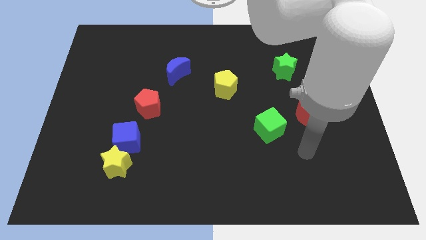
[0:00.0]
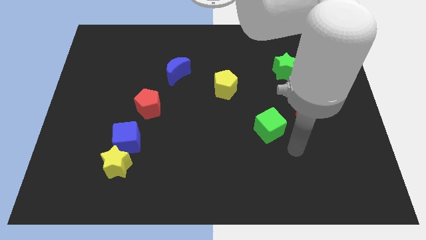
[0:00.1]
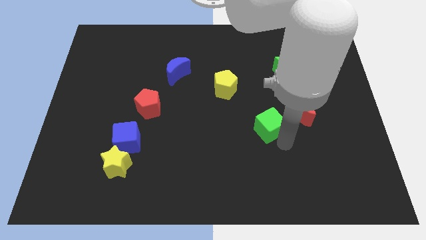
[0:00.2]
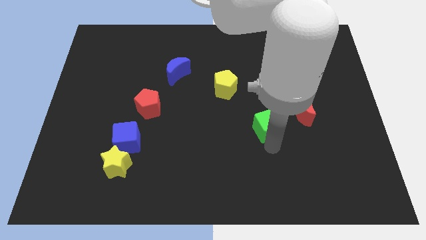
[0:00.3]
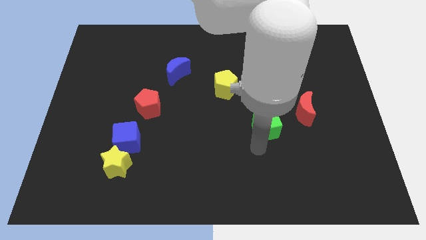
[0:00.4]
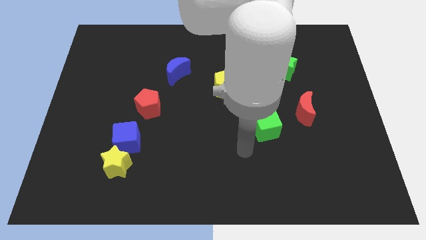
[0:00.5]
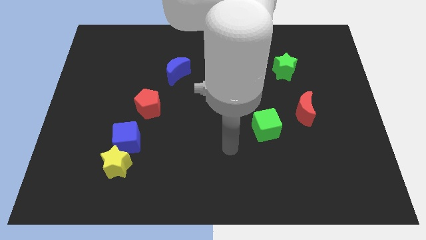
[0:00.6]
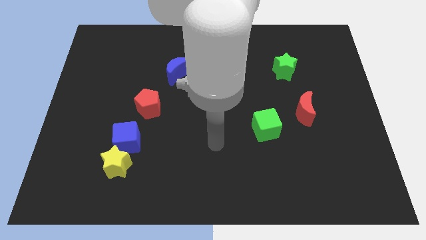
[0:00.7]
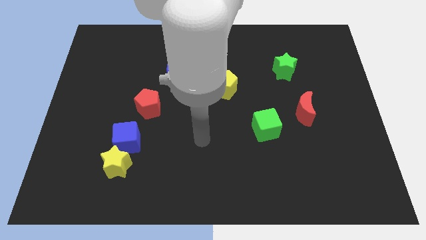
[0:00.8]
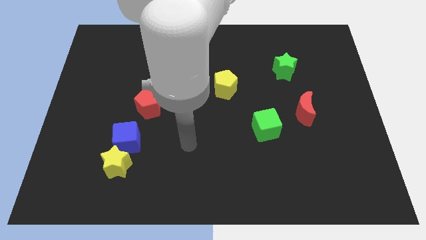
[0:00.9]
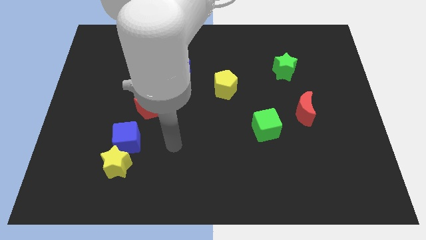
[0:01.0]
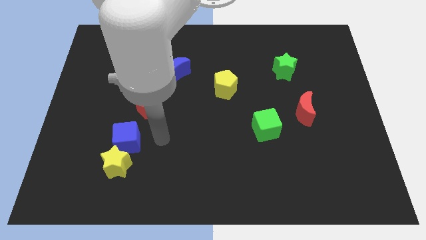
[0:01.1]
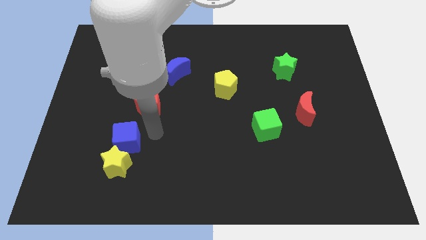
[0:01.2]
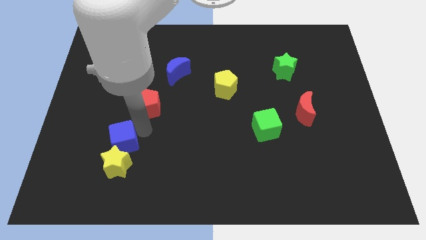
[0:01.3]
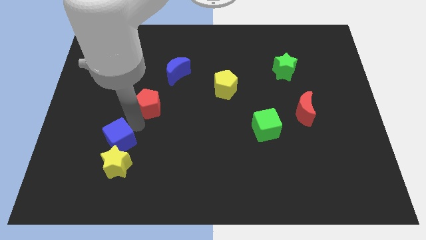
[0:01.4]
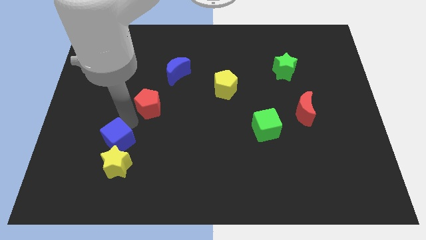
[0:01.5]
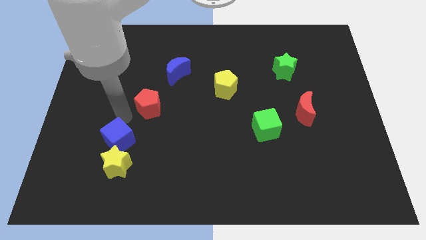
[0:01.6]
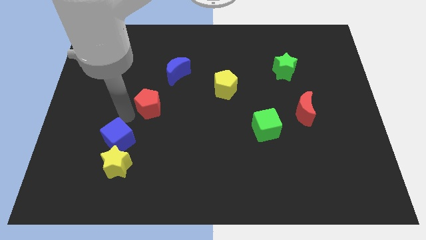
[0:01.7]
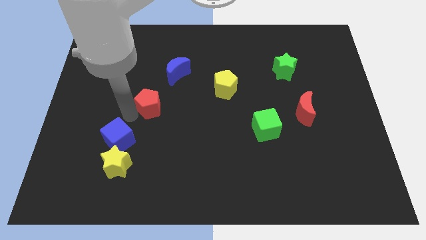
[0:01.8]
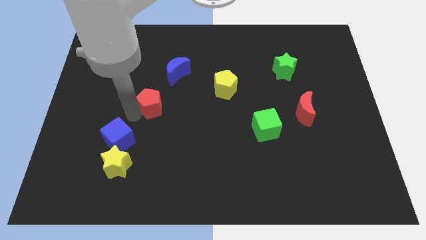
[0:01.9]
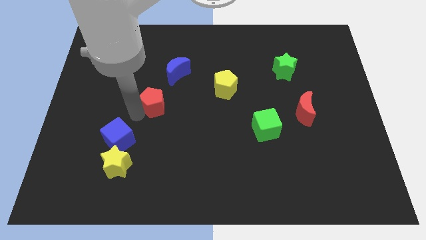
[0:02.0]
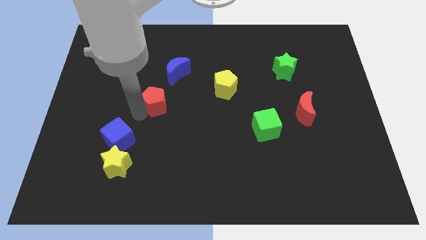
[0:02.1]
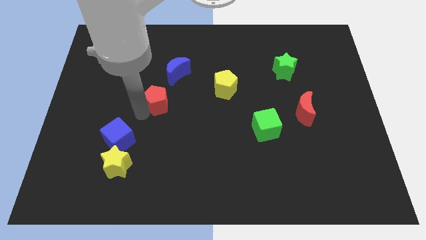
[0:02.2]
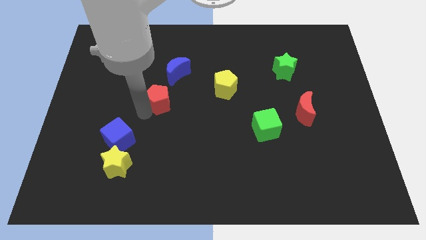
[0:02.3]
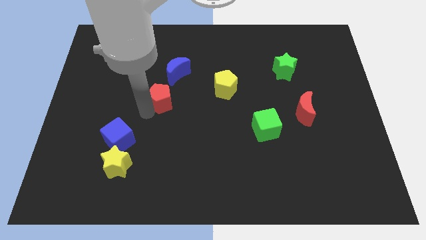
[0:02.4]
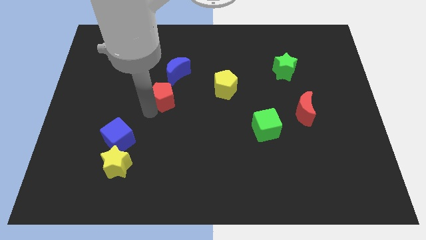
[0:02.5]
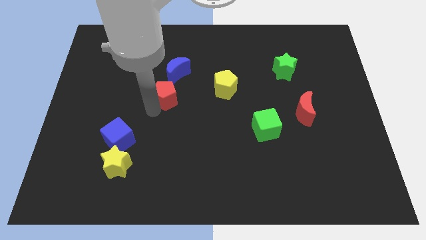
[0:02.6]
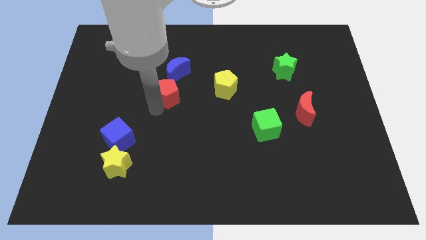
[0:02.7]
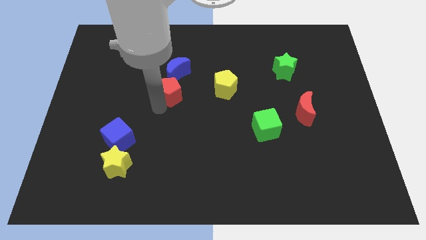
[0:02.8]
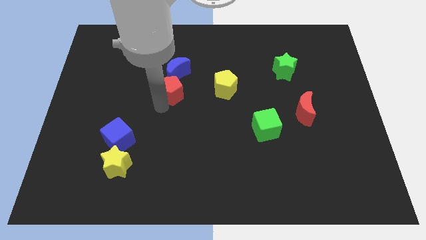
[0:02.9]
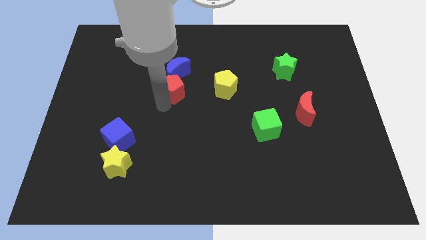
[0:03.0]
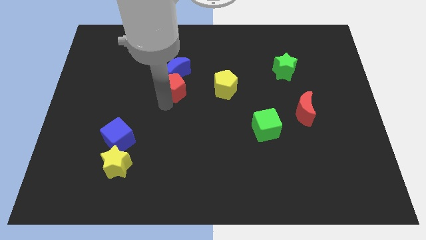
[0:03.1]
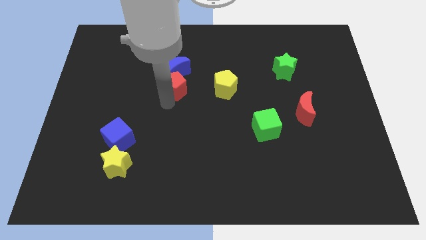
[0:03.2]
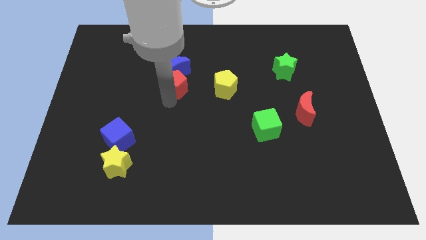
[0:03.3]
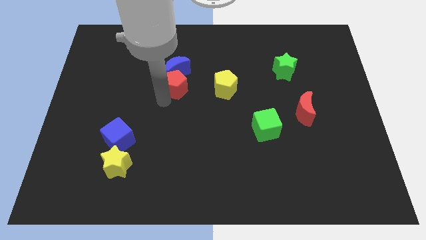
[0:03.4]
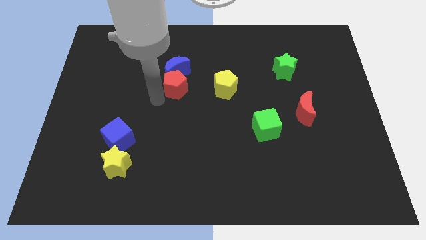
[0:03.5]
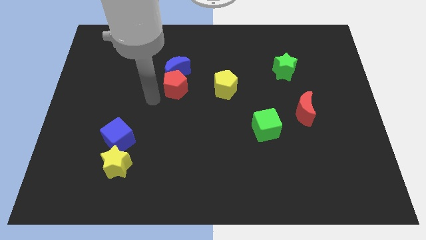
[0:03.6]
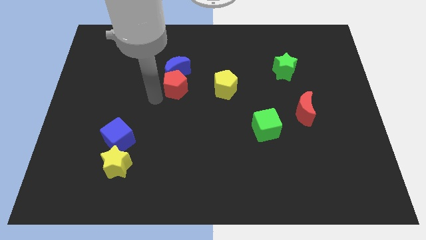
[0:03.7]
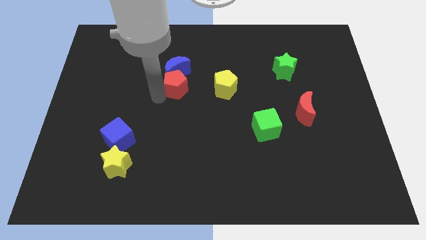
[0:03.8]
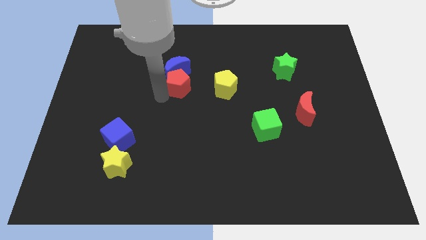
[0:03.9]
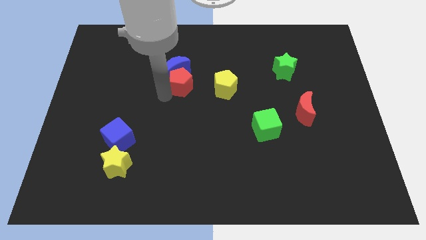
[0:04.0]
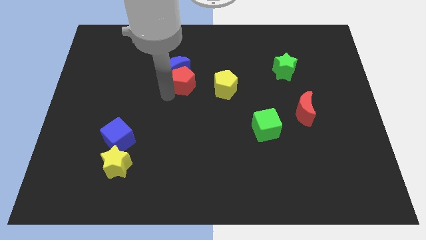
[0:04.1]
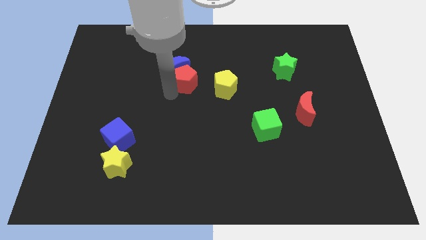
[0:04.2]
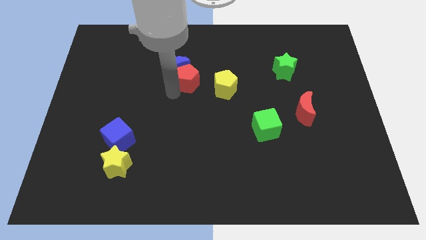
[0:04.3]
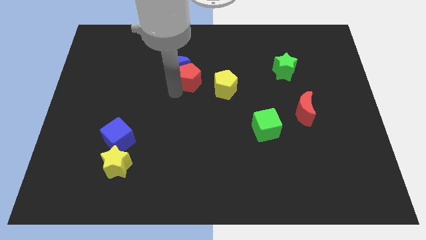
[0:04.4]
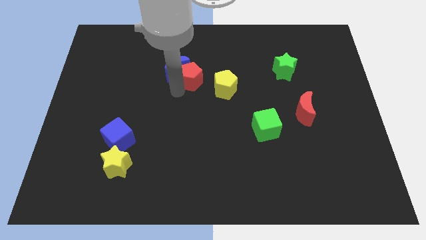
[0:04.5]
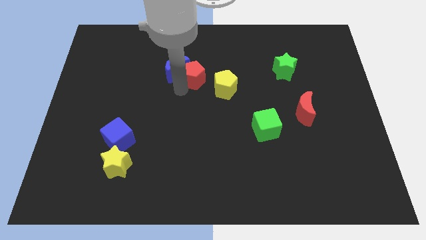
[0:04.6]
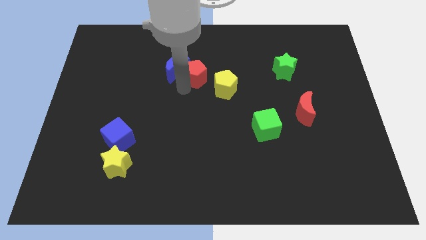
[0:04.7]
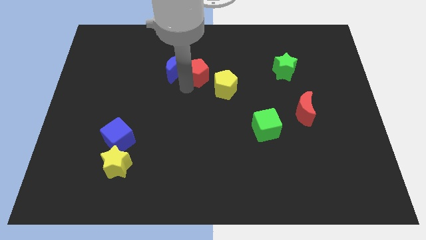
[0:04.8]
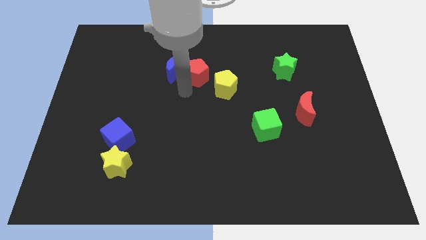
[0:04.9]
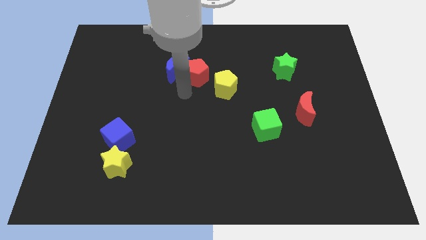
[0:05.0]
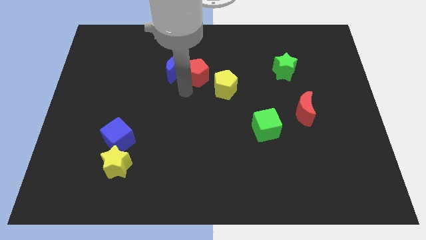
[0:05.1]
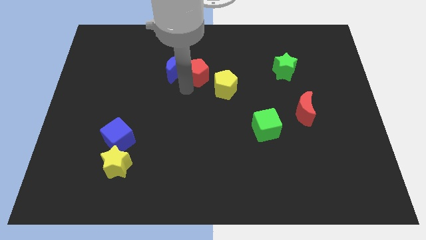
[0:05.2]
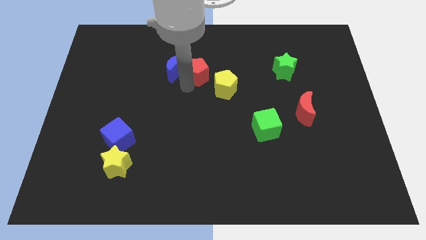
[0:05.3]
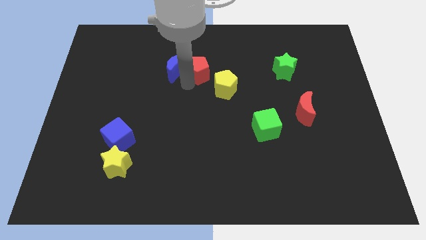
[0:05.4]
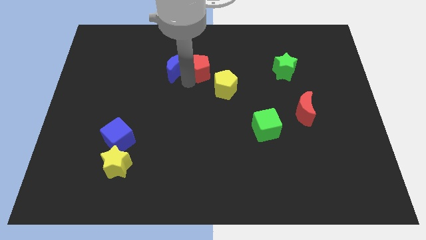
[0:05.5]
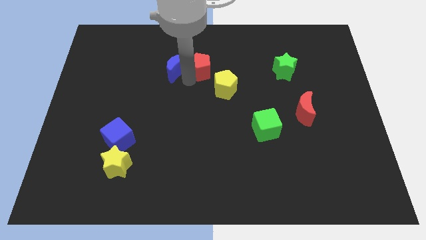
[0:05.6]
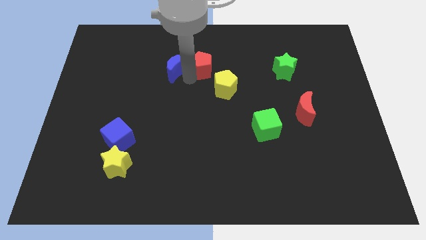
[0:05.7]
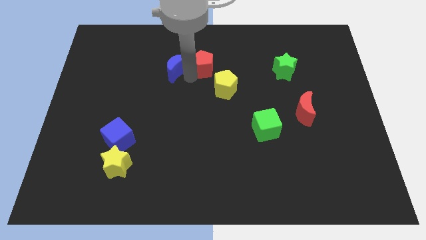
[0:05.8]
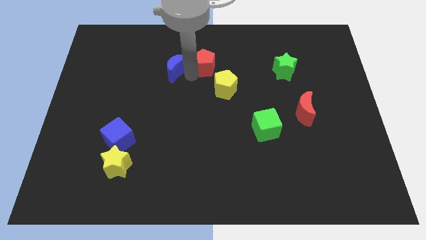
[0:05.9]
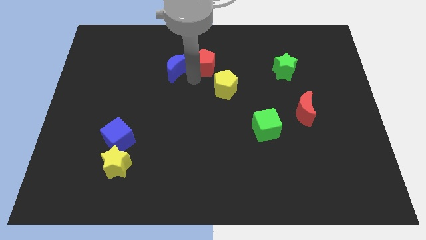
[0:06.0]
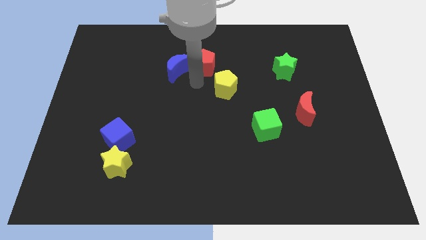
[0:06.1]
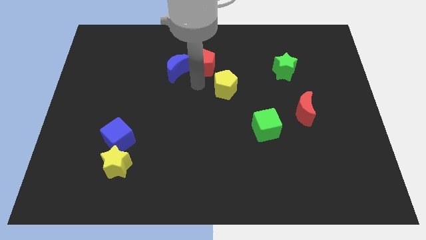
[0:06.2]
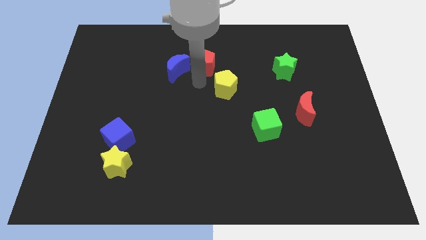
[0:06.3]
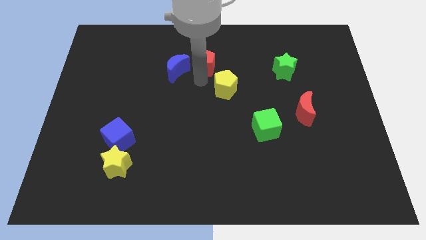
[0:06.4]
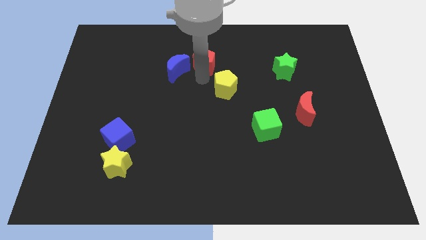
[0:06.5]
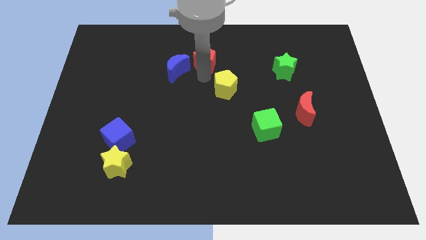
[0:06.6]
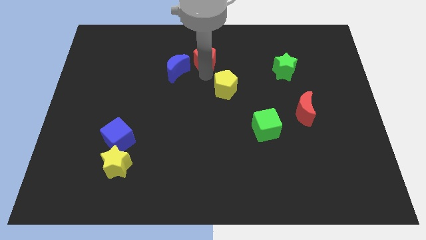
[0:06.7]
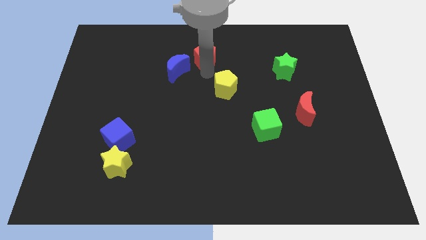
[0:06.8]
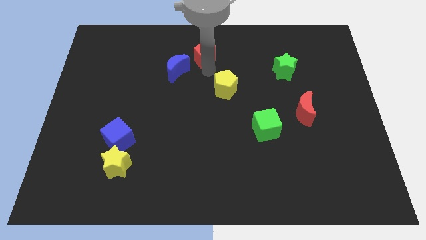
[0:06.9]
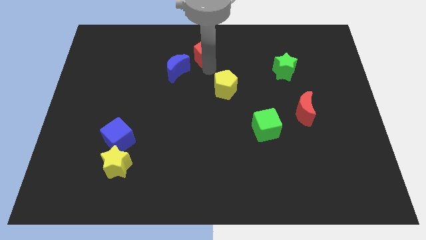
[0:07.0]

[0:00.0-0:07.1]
move the red pentagon to the towards your base
